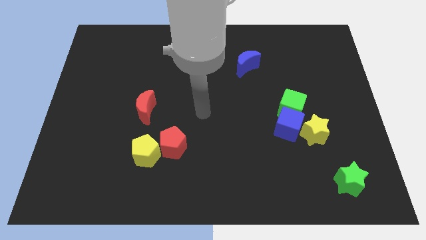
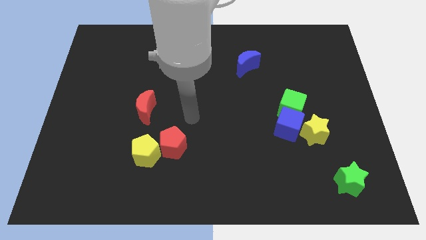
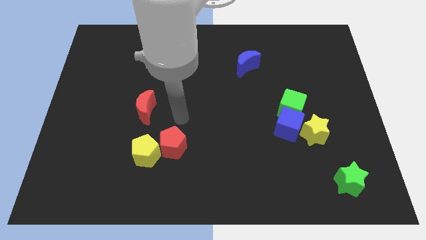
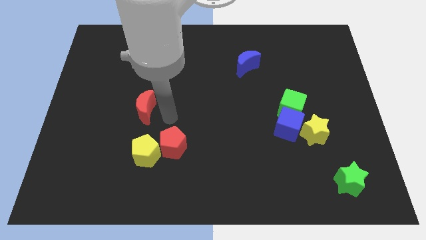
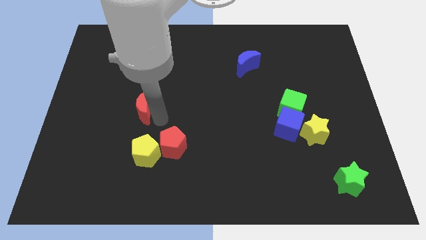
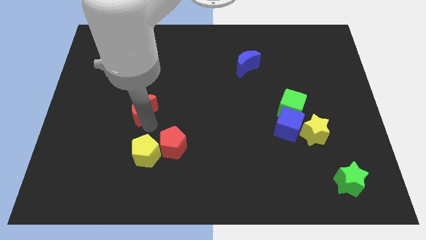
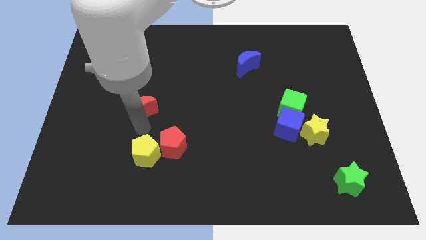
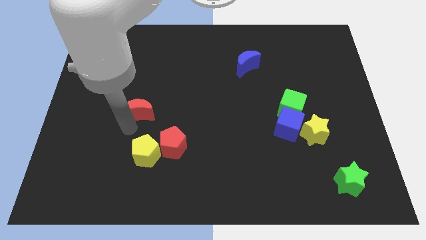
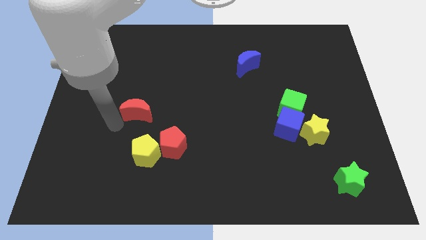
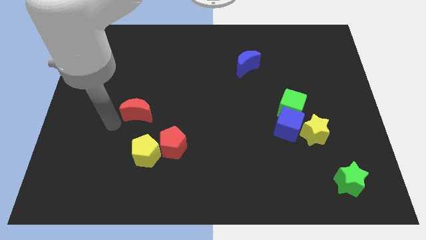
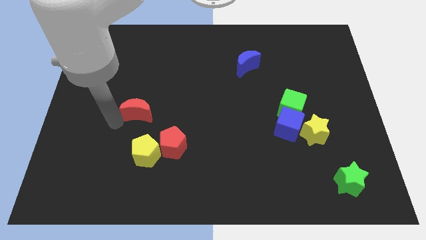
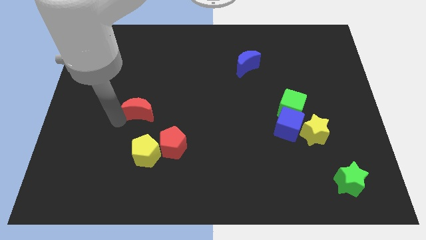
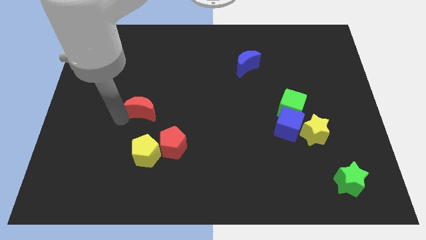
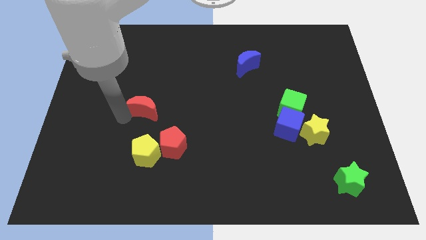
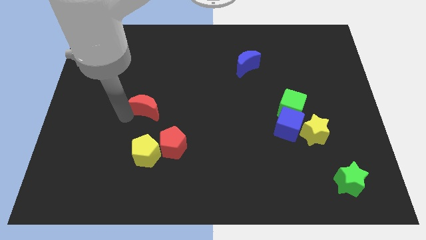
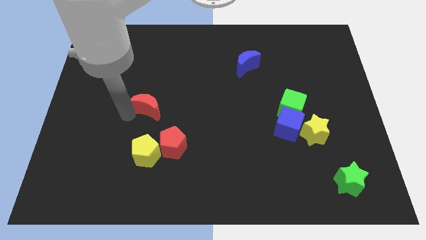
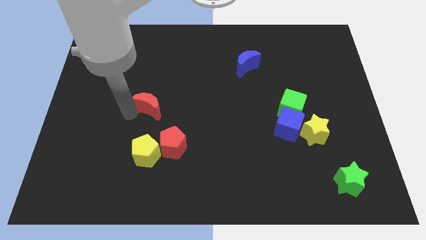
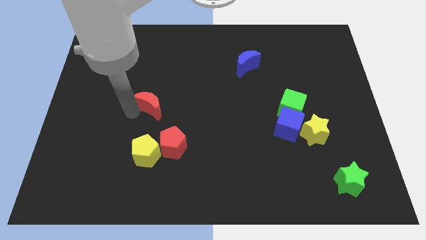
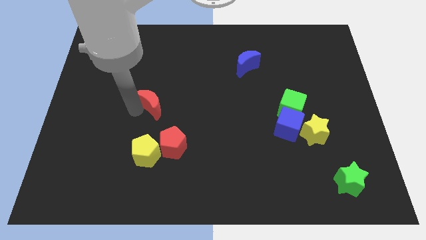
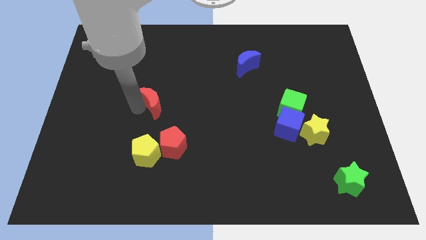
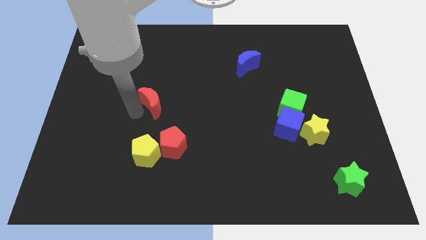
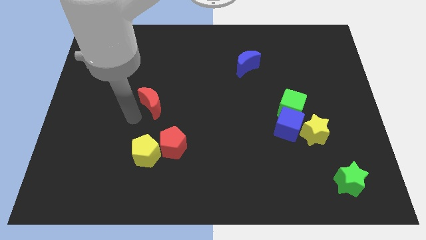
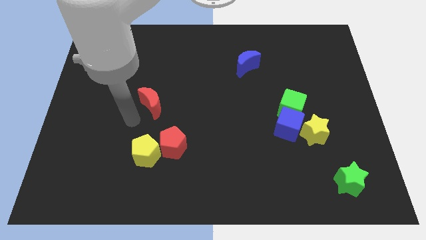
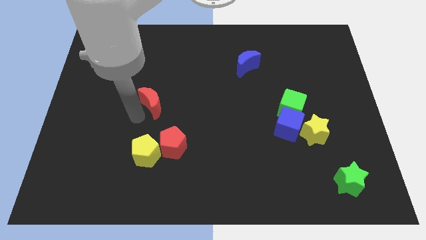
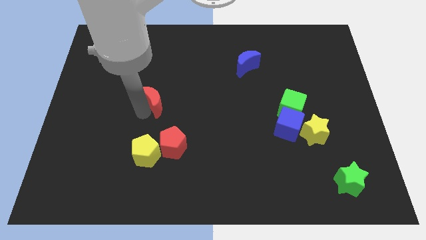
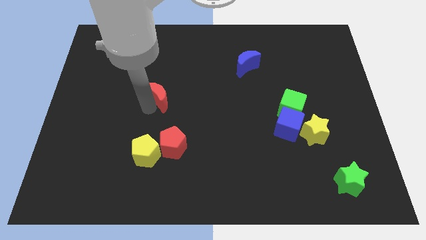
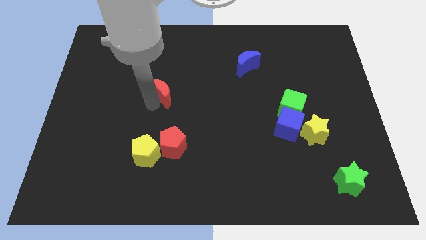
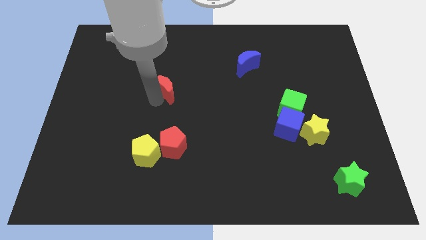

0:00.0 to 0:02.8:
slightly move the red moon upwards and then right

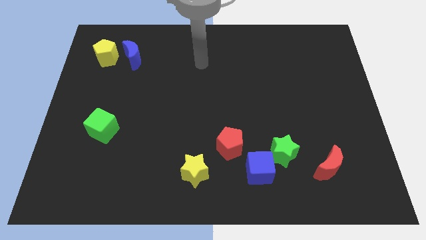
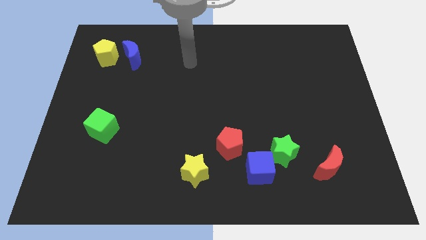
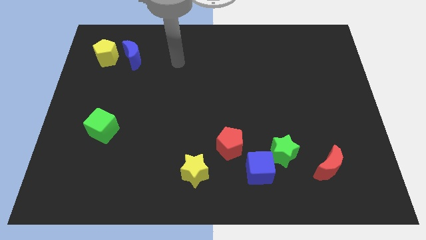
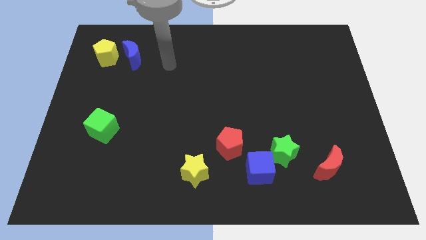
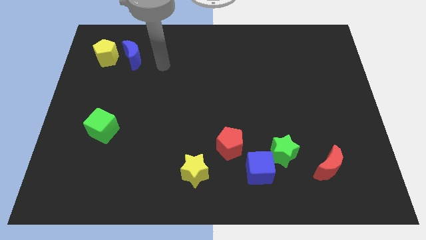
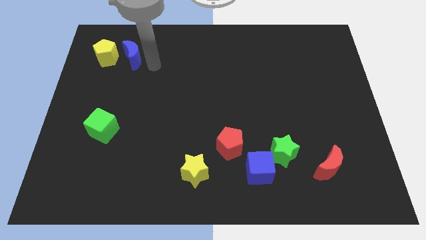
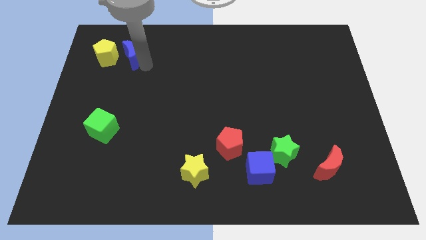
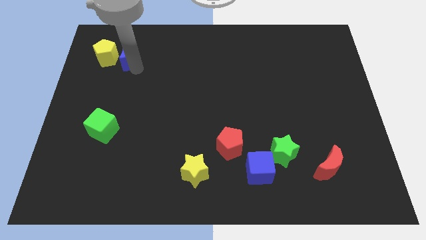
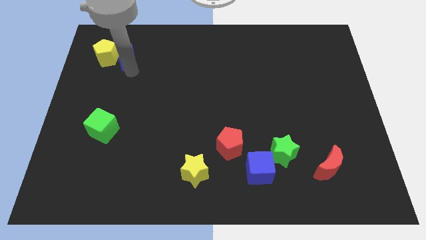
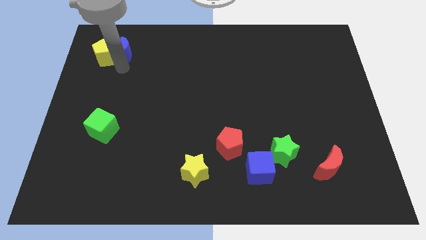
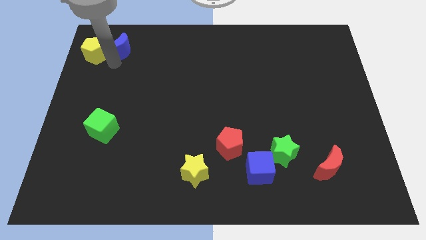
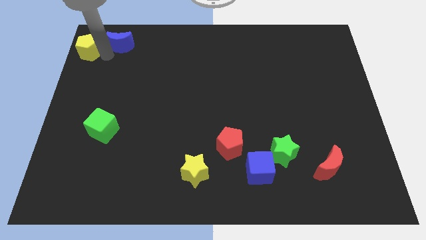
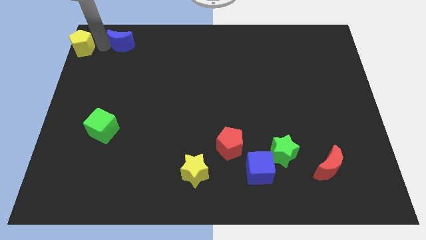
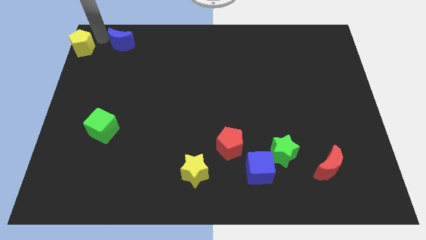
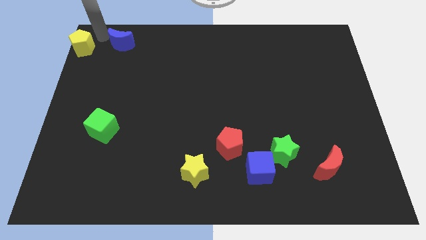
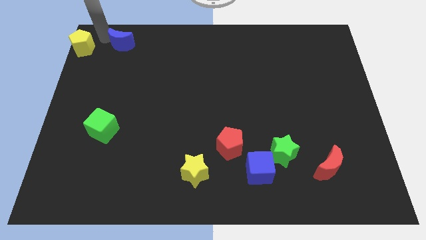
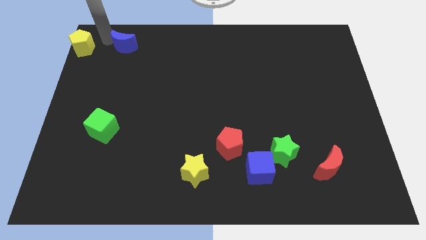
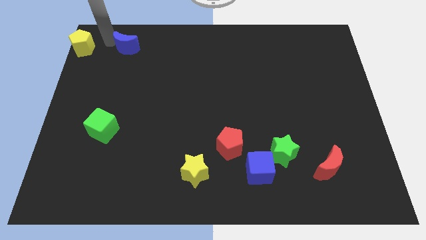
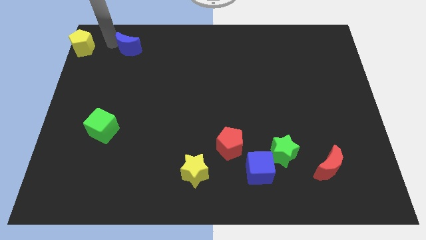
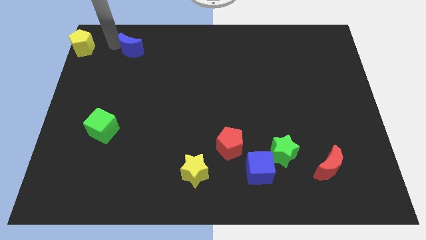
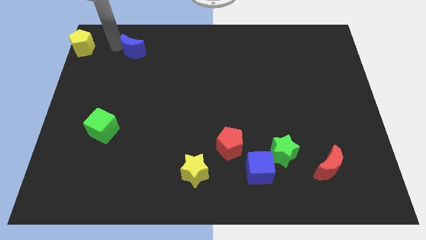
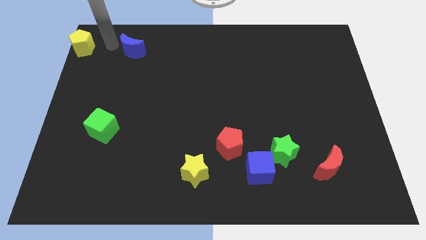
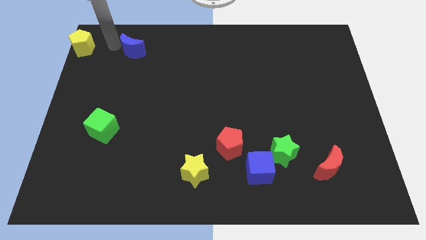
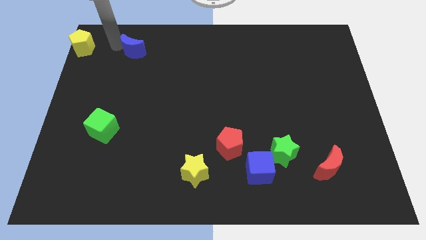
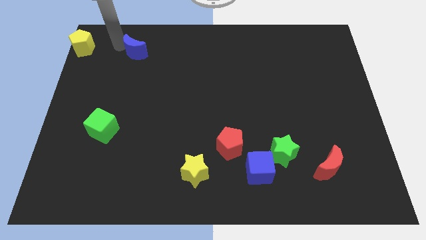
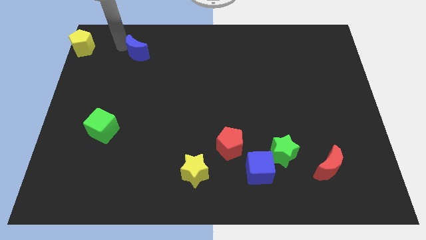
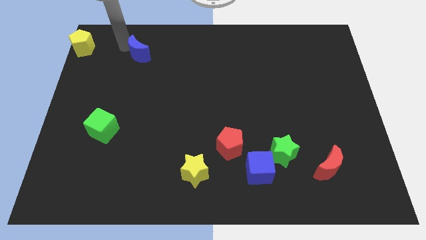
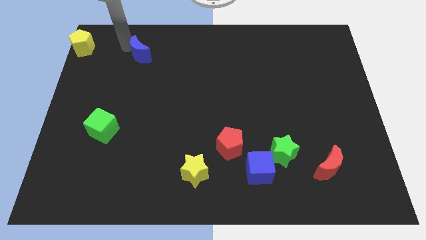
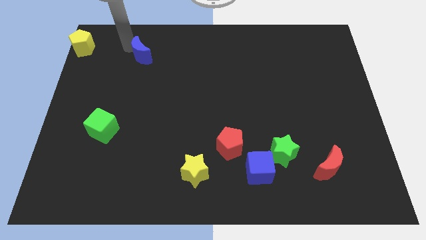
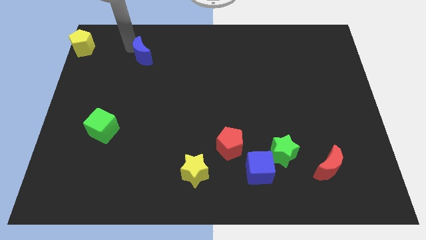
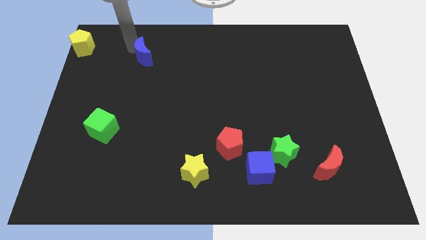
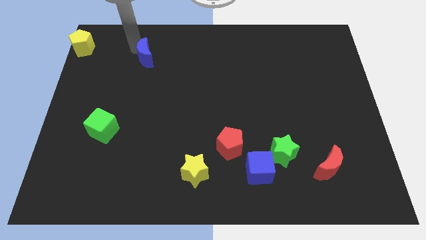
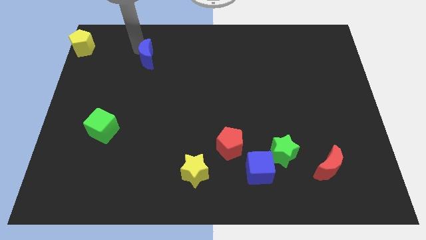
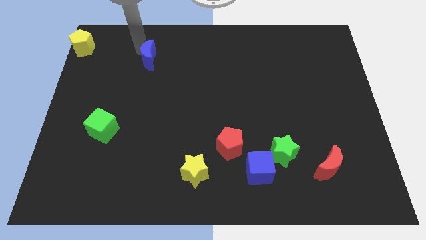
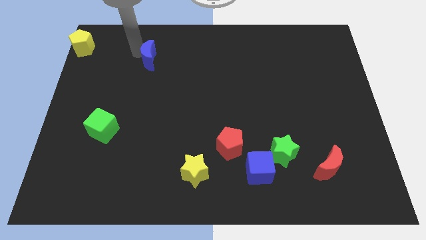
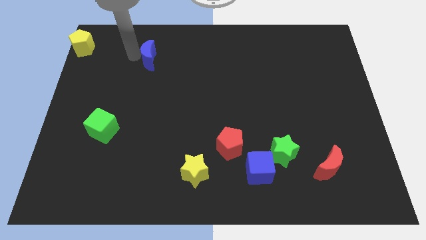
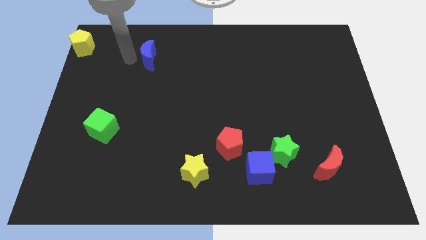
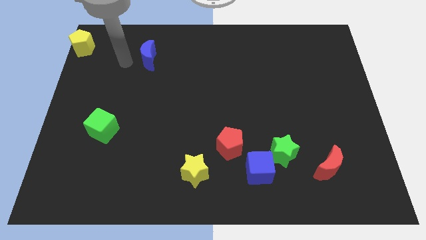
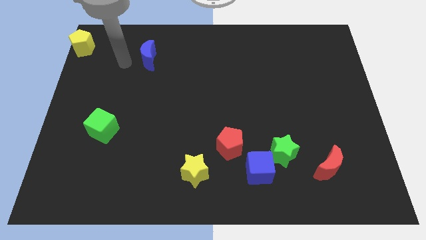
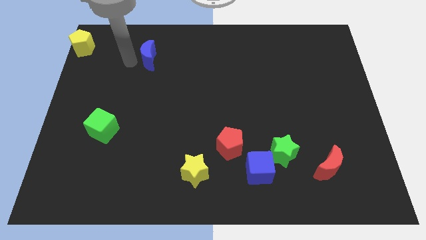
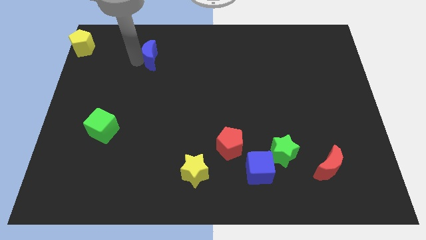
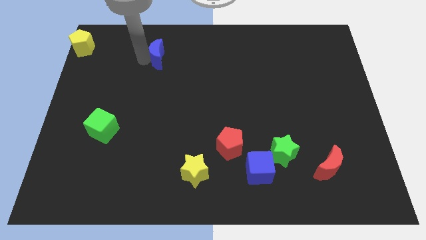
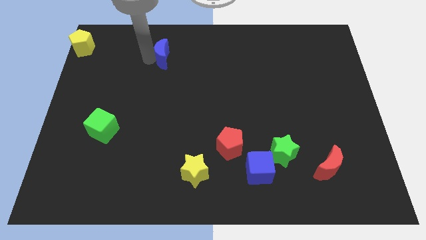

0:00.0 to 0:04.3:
push the blue moon a bit right
